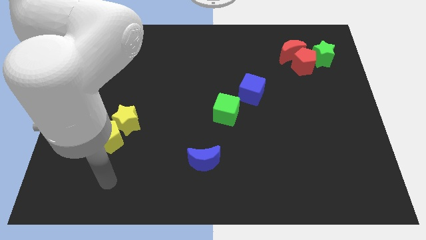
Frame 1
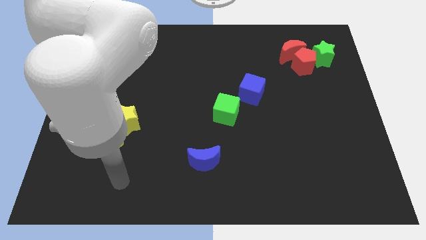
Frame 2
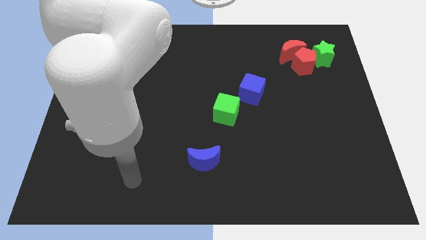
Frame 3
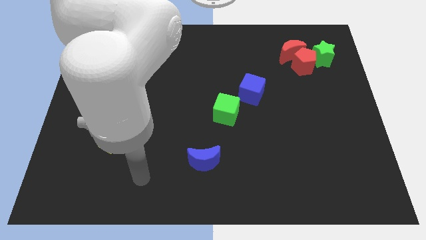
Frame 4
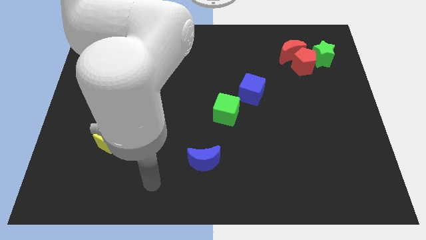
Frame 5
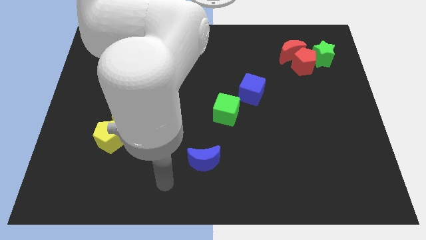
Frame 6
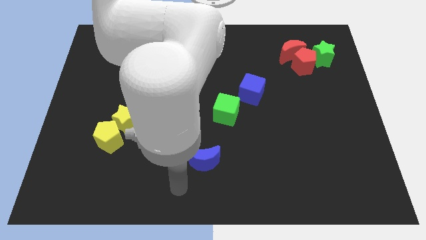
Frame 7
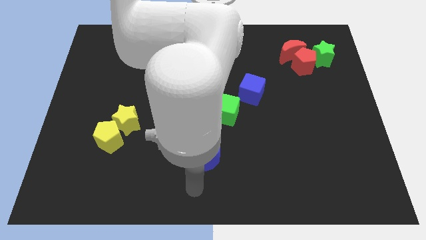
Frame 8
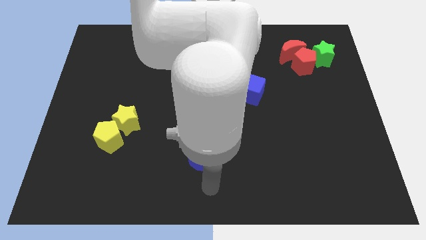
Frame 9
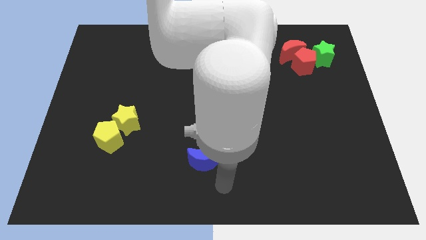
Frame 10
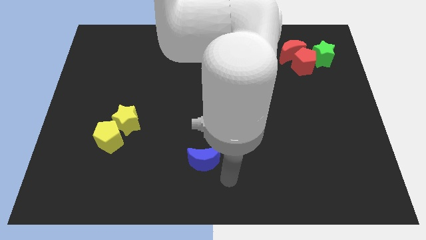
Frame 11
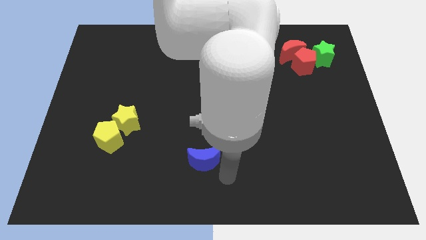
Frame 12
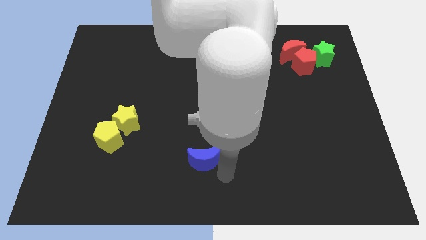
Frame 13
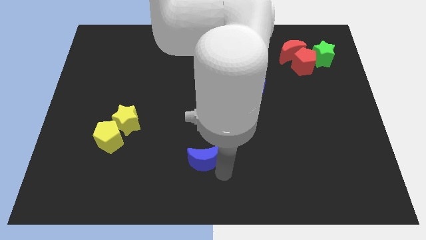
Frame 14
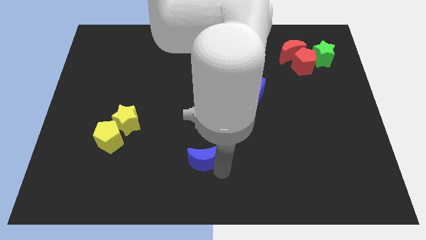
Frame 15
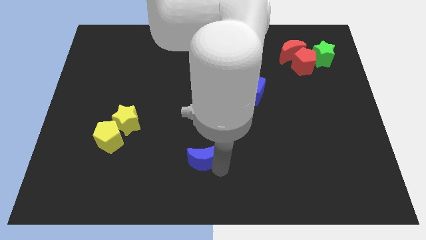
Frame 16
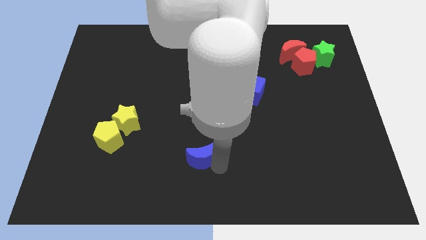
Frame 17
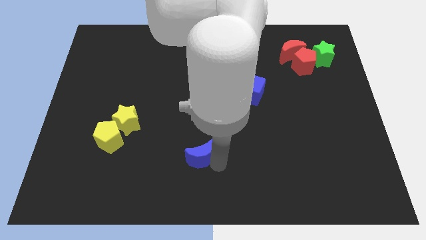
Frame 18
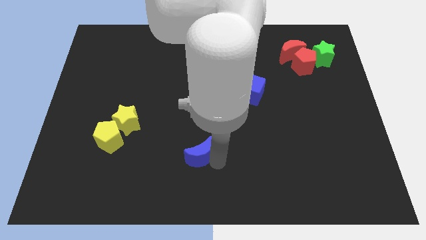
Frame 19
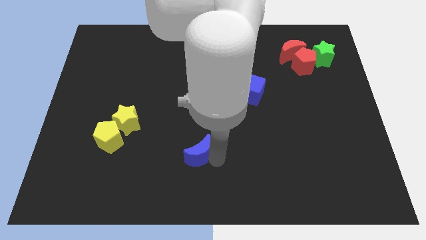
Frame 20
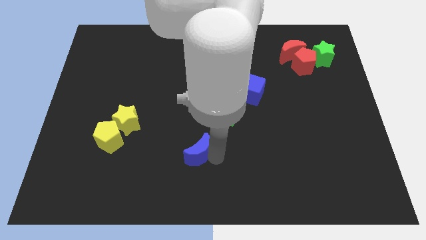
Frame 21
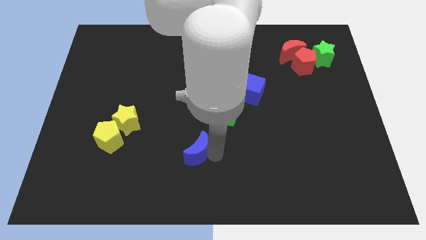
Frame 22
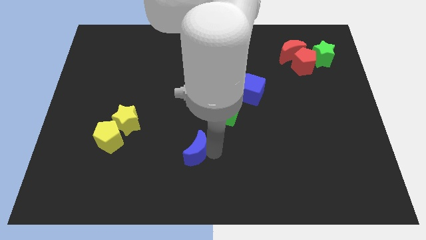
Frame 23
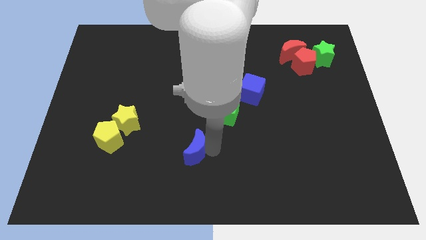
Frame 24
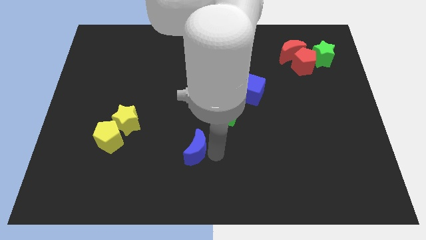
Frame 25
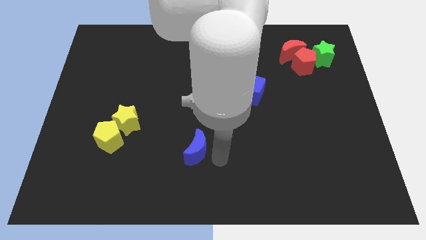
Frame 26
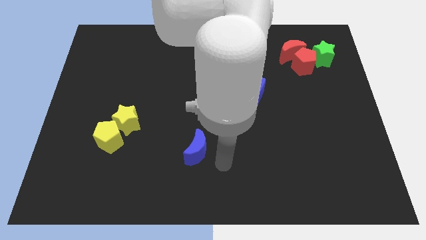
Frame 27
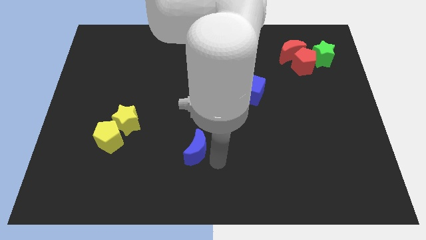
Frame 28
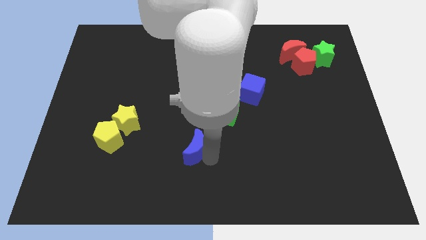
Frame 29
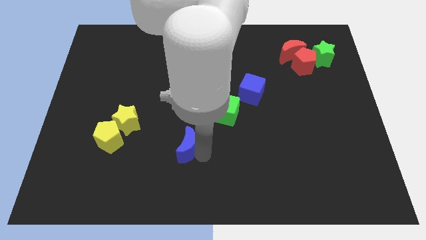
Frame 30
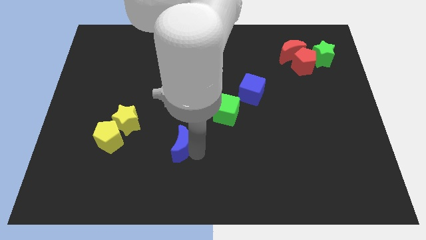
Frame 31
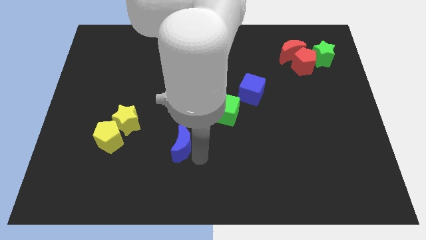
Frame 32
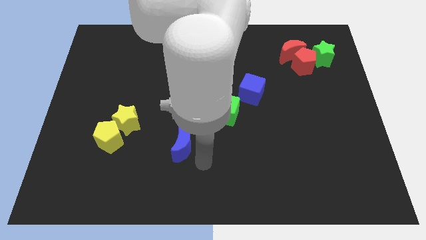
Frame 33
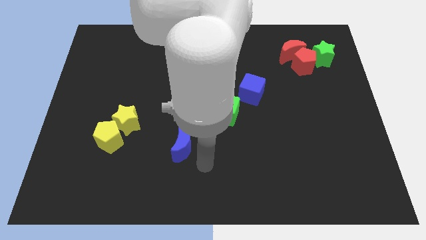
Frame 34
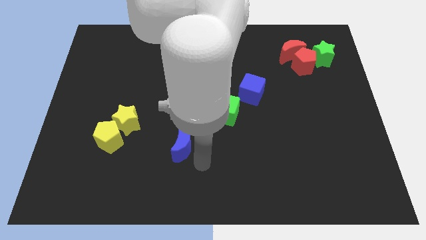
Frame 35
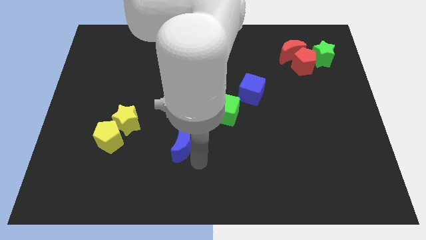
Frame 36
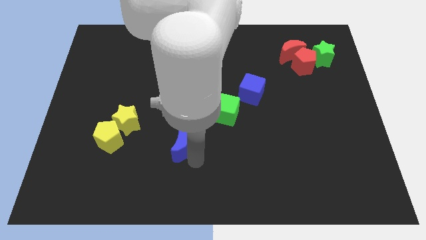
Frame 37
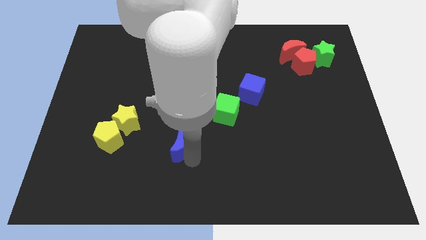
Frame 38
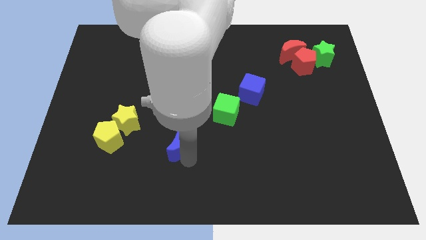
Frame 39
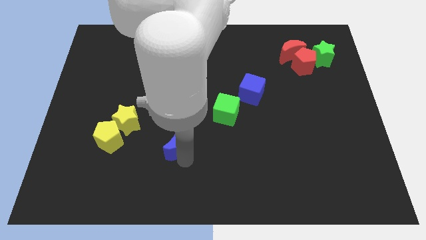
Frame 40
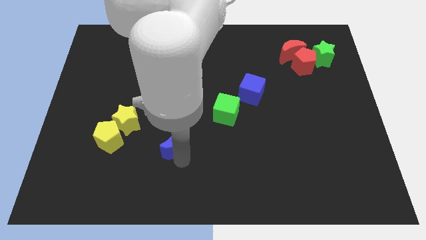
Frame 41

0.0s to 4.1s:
move the blue moon a little bit upwards and left diagonally

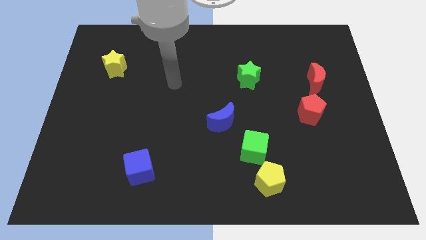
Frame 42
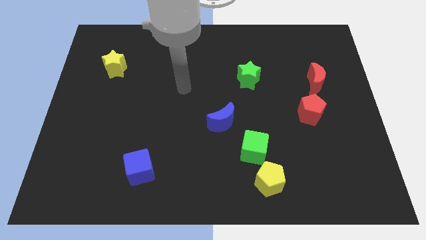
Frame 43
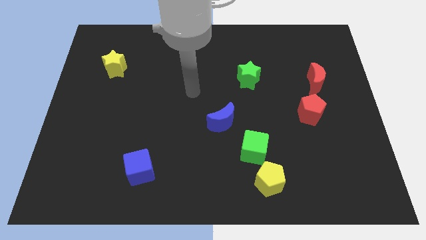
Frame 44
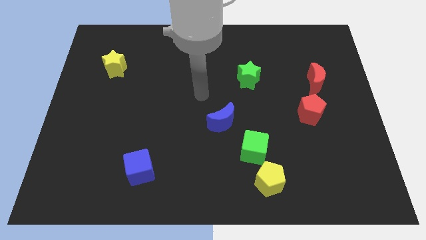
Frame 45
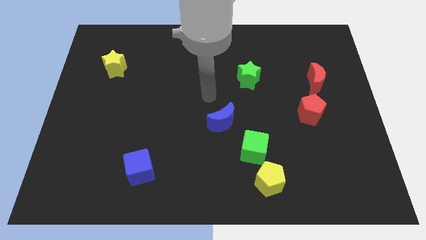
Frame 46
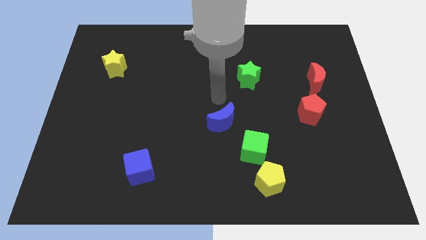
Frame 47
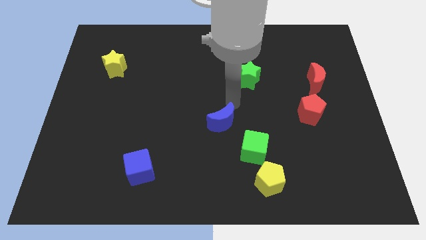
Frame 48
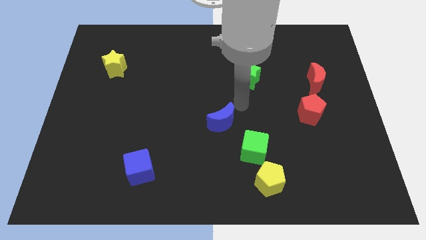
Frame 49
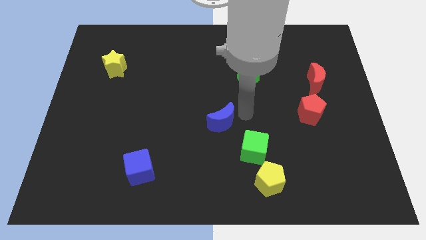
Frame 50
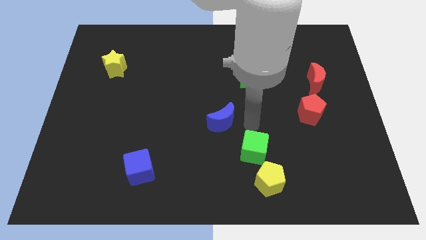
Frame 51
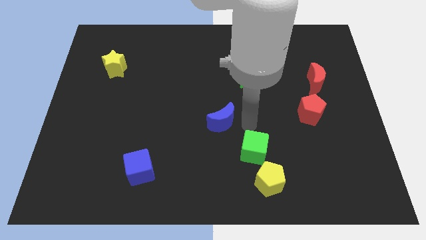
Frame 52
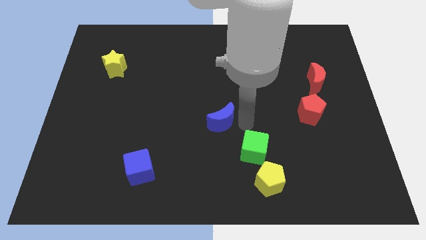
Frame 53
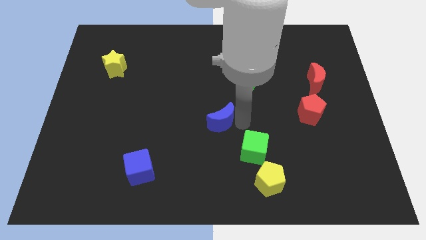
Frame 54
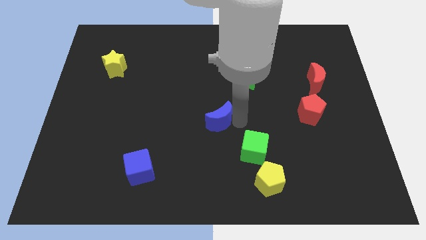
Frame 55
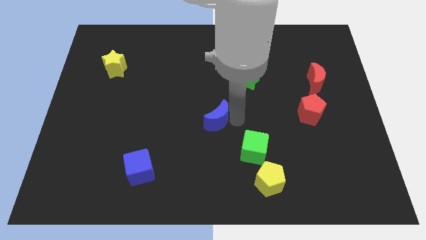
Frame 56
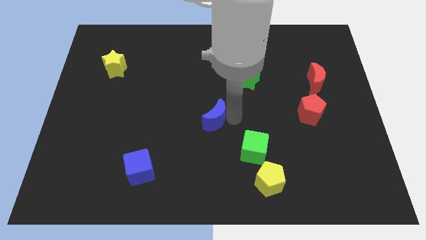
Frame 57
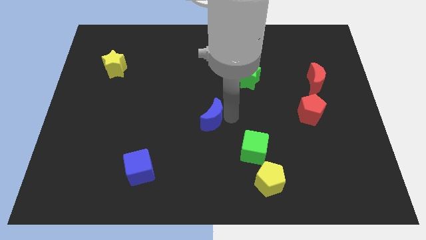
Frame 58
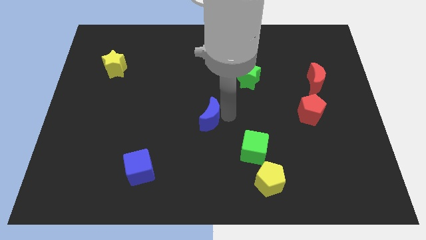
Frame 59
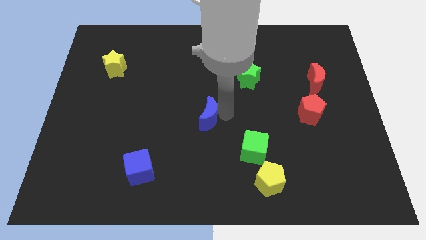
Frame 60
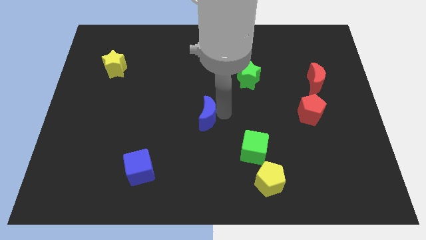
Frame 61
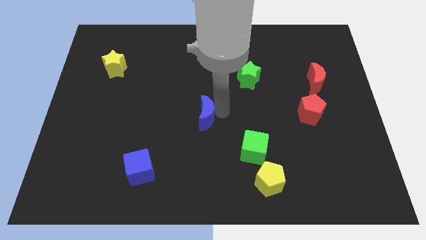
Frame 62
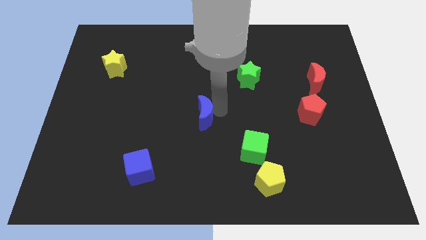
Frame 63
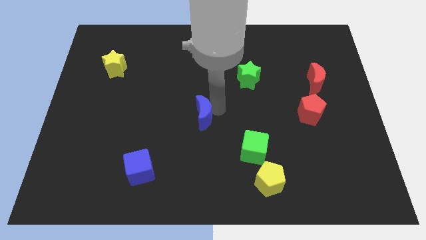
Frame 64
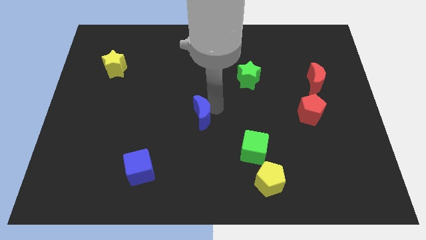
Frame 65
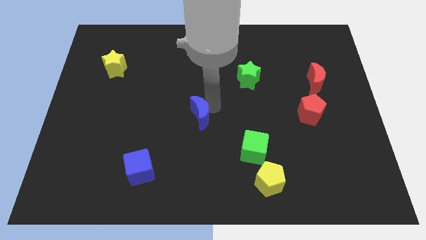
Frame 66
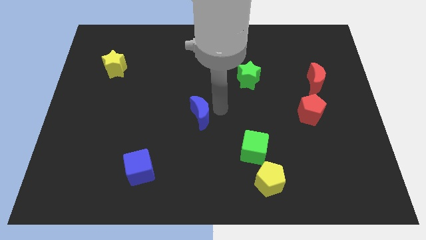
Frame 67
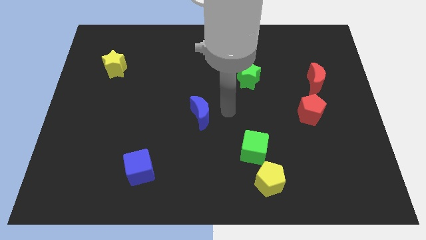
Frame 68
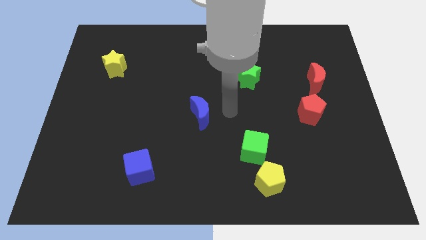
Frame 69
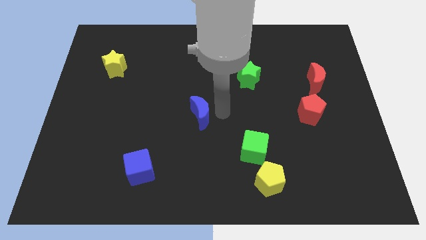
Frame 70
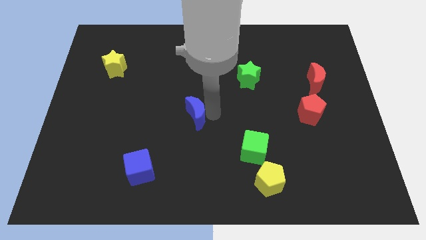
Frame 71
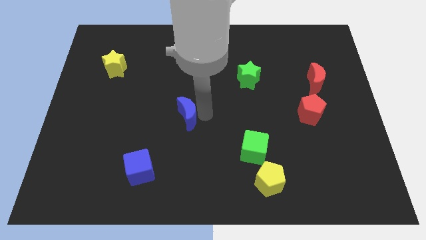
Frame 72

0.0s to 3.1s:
move the blue moon a bit left

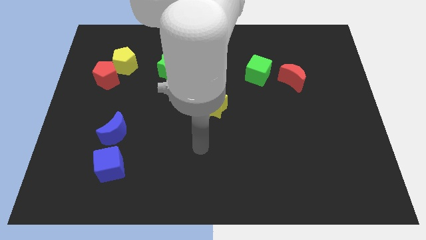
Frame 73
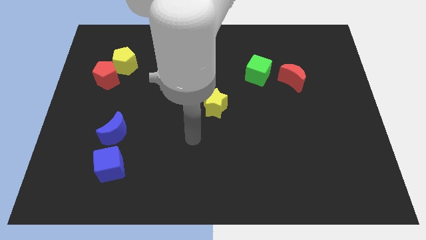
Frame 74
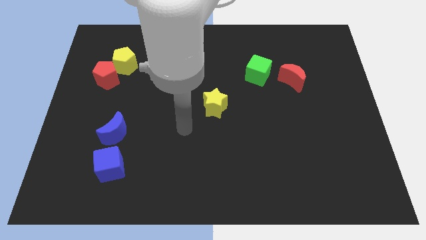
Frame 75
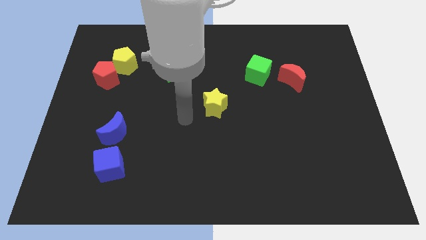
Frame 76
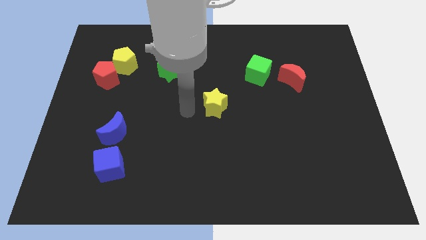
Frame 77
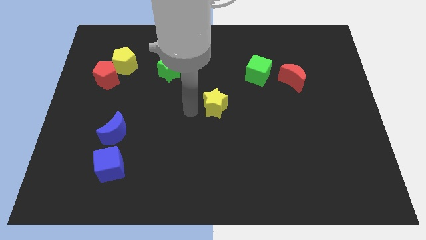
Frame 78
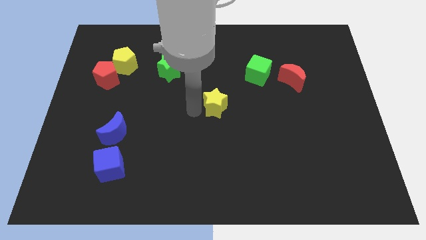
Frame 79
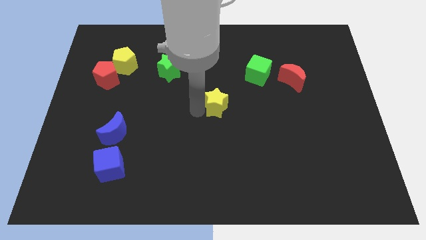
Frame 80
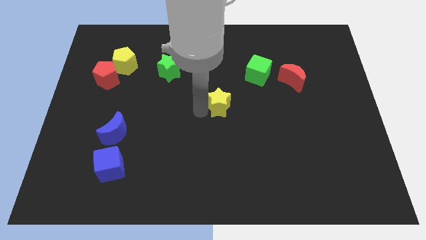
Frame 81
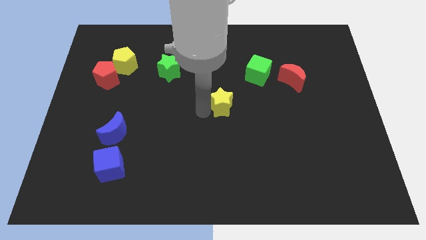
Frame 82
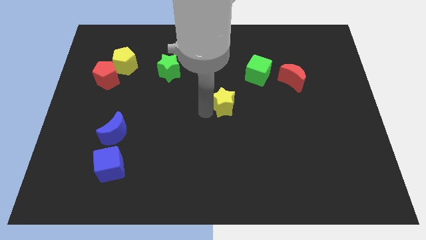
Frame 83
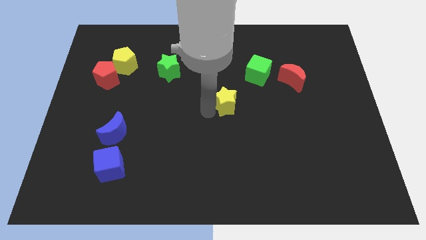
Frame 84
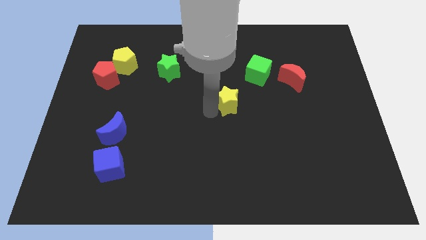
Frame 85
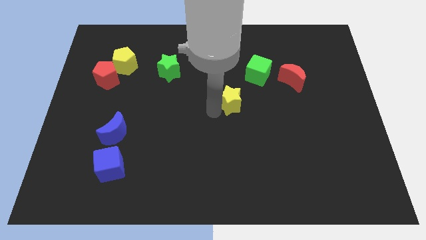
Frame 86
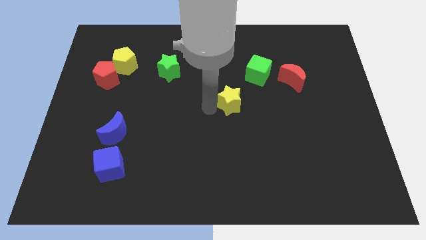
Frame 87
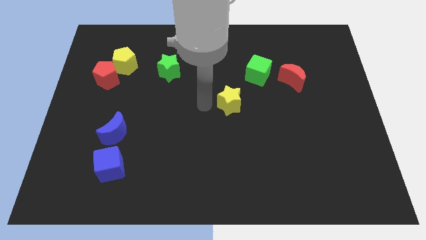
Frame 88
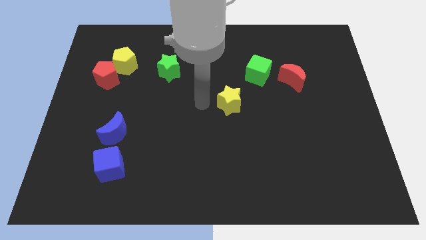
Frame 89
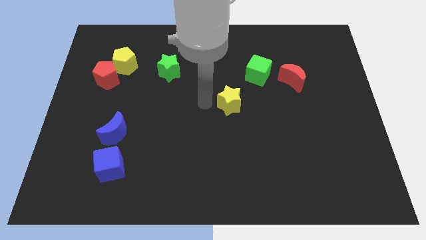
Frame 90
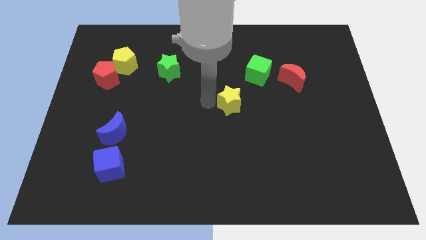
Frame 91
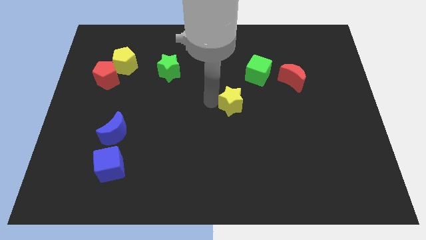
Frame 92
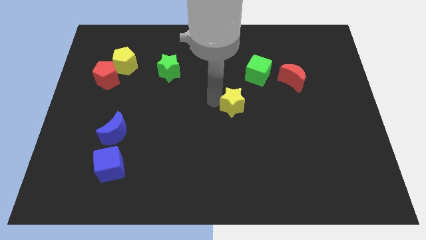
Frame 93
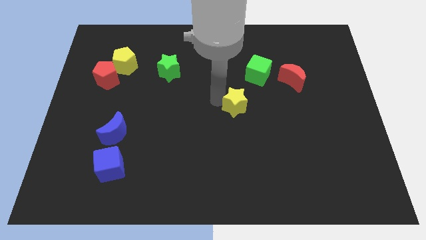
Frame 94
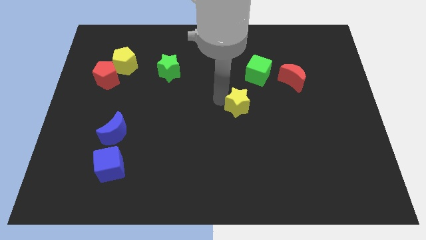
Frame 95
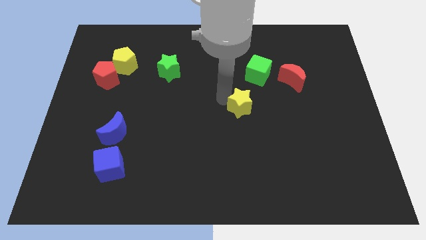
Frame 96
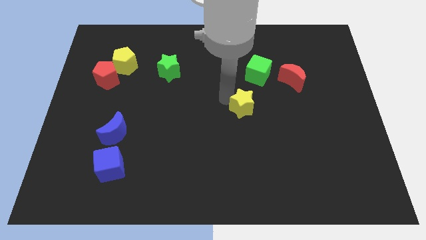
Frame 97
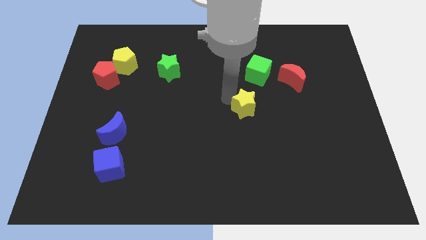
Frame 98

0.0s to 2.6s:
push the yellow star to the right a little
